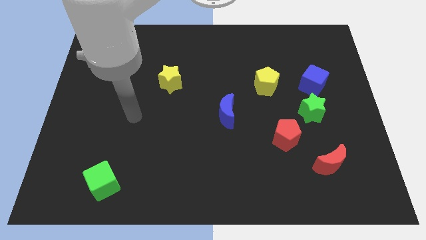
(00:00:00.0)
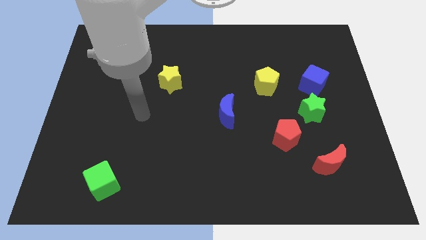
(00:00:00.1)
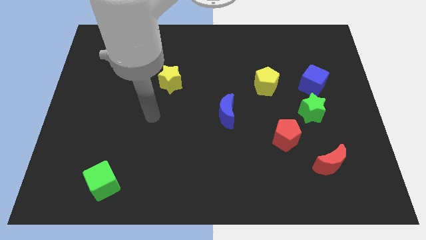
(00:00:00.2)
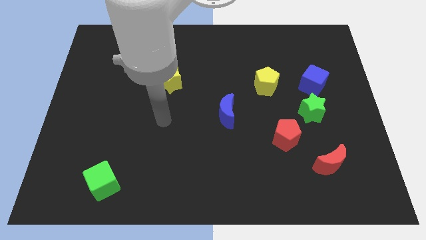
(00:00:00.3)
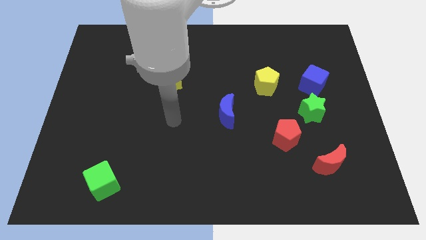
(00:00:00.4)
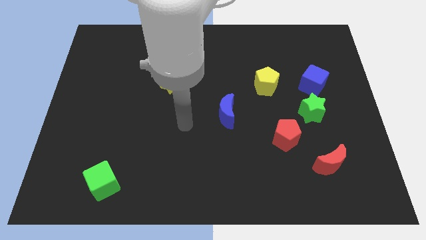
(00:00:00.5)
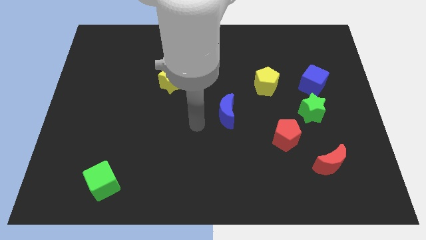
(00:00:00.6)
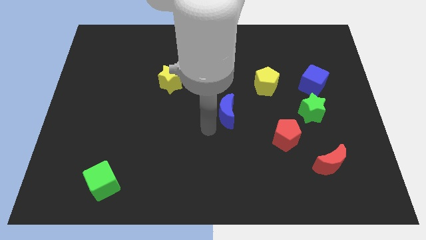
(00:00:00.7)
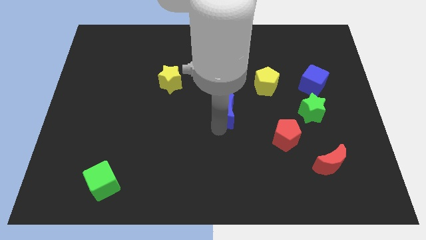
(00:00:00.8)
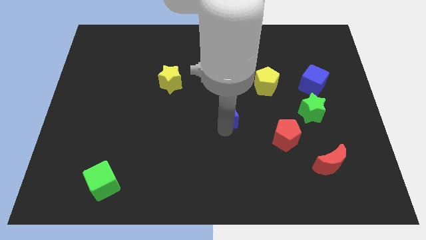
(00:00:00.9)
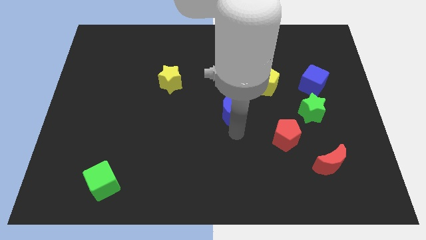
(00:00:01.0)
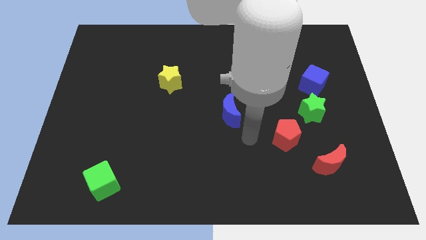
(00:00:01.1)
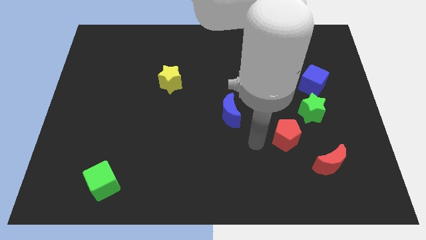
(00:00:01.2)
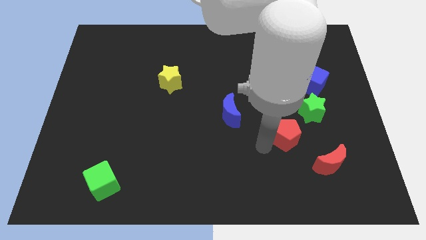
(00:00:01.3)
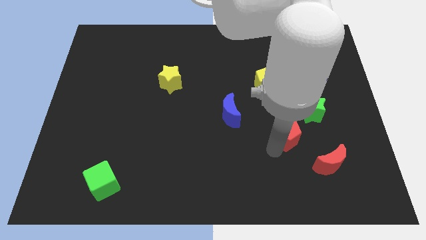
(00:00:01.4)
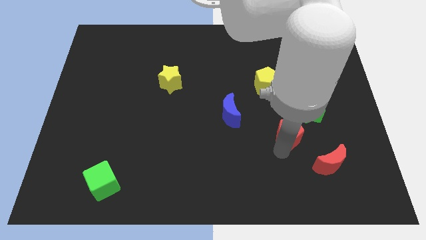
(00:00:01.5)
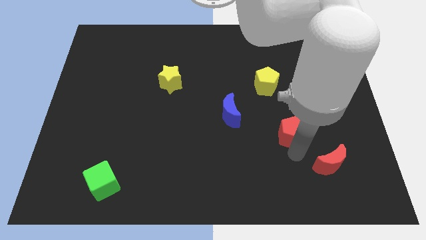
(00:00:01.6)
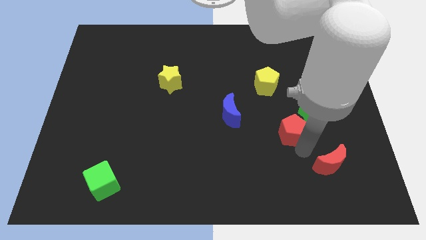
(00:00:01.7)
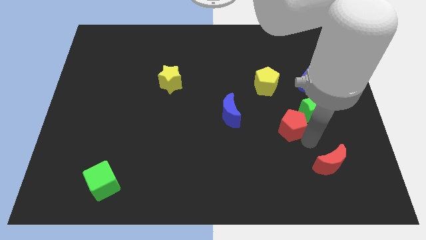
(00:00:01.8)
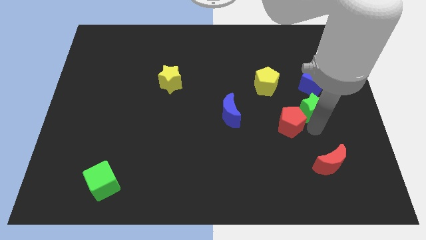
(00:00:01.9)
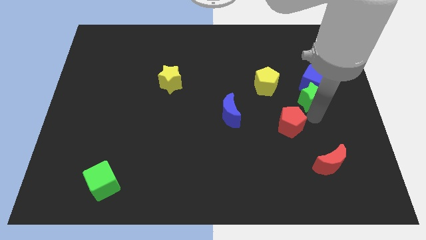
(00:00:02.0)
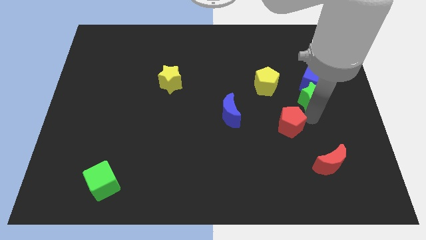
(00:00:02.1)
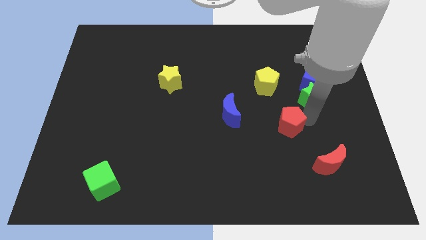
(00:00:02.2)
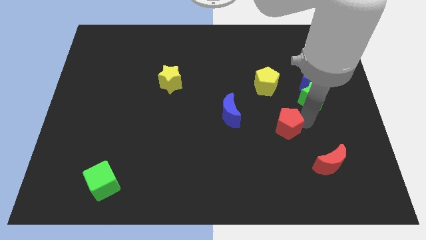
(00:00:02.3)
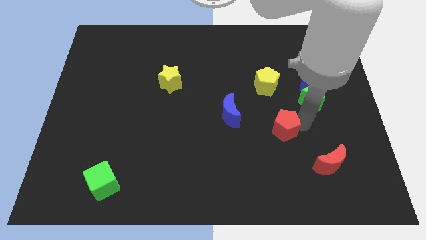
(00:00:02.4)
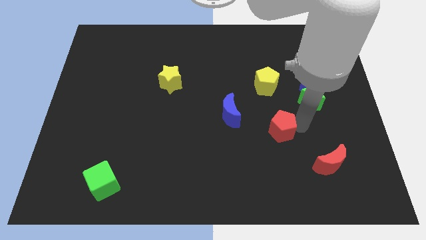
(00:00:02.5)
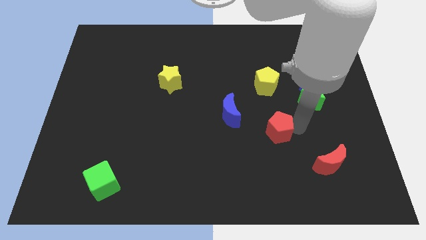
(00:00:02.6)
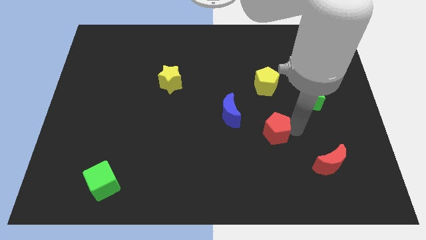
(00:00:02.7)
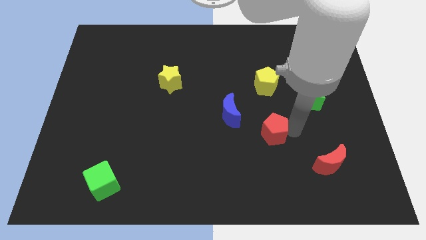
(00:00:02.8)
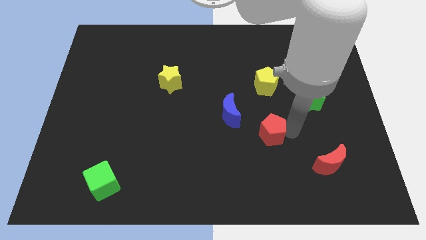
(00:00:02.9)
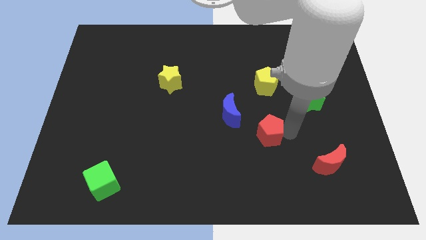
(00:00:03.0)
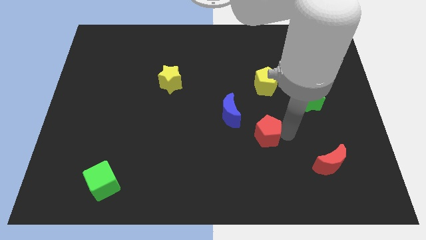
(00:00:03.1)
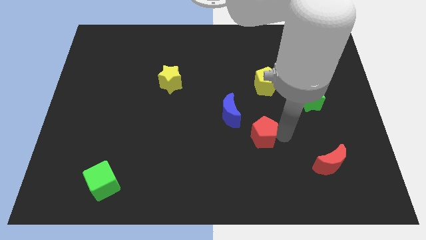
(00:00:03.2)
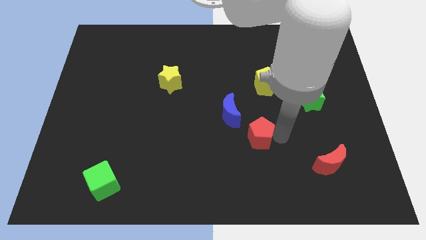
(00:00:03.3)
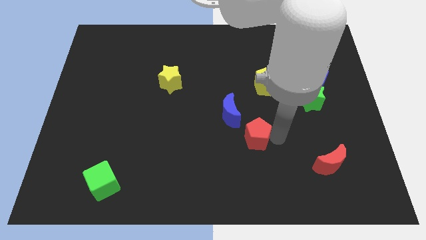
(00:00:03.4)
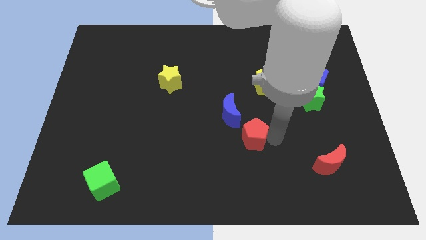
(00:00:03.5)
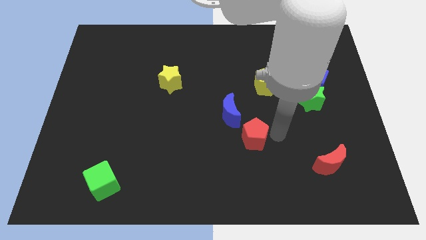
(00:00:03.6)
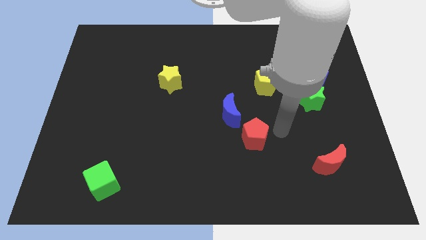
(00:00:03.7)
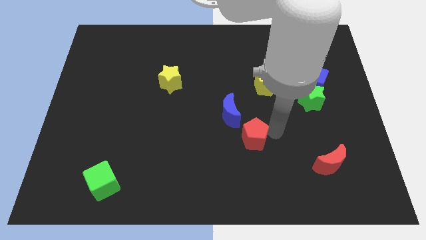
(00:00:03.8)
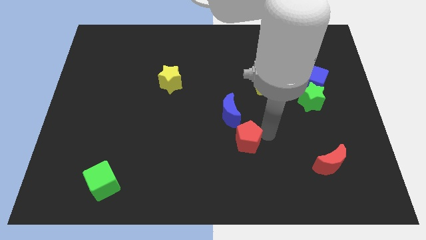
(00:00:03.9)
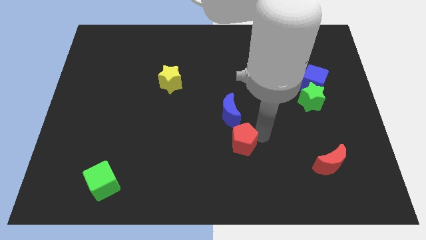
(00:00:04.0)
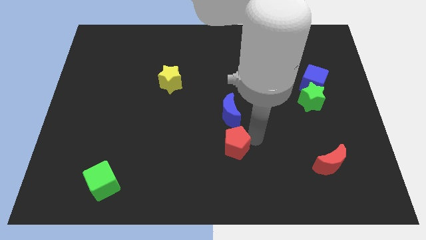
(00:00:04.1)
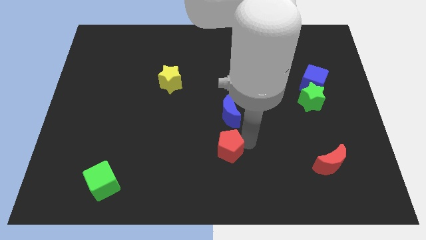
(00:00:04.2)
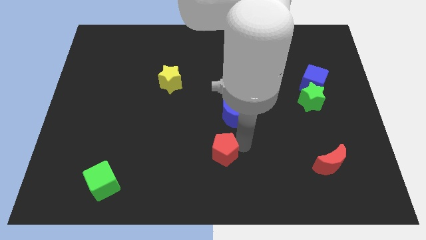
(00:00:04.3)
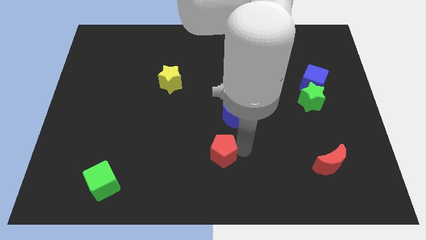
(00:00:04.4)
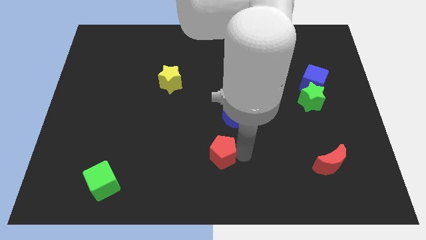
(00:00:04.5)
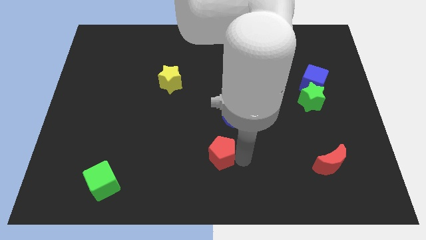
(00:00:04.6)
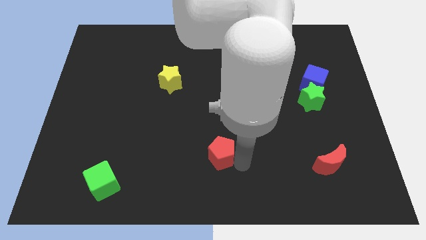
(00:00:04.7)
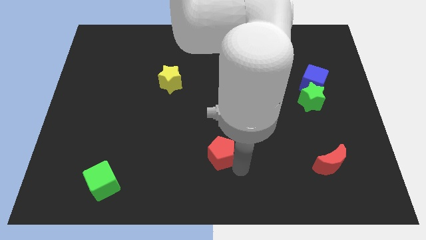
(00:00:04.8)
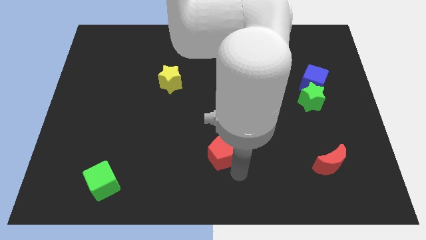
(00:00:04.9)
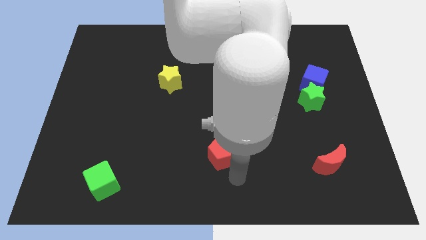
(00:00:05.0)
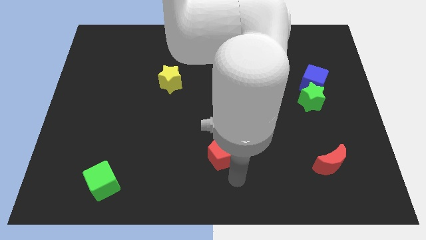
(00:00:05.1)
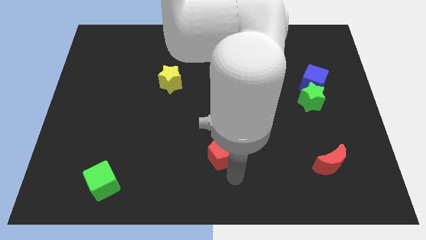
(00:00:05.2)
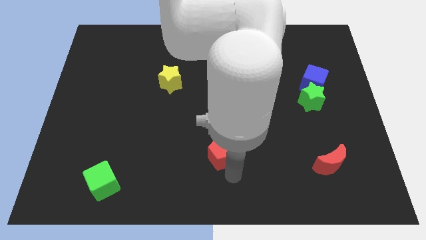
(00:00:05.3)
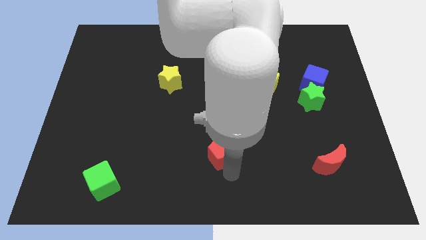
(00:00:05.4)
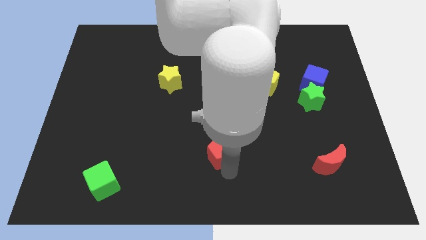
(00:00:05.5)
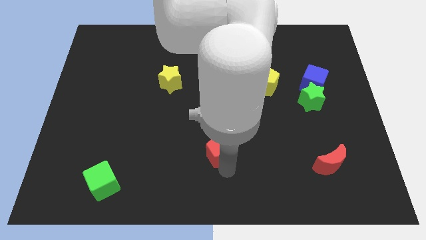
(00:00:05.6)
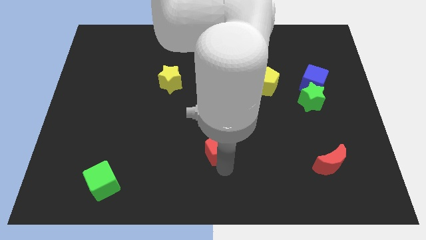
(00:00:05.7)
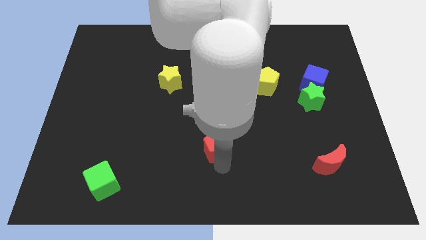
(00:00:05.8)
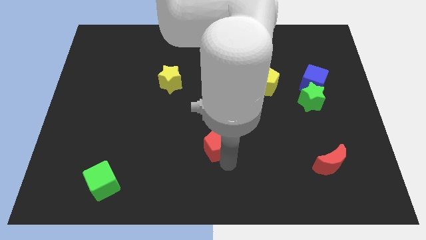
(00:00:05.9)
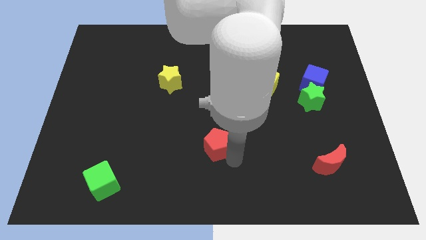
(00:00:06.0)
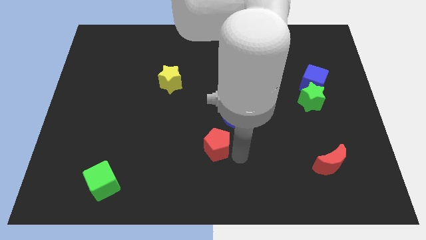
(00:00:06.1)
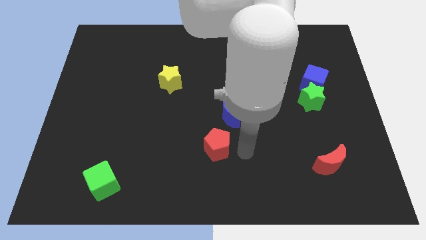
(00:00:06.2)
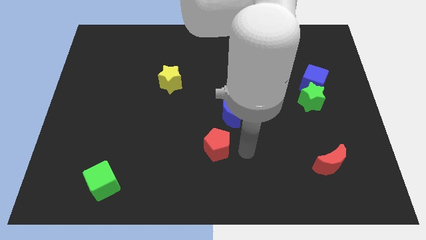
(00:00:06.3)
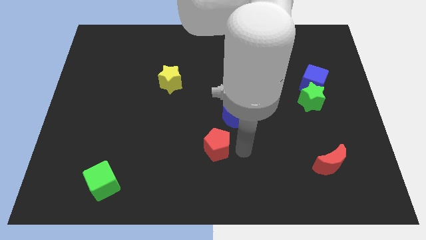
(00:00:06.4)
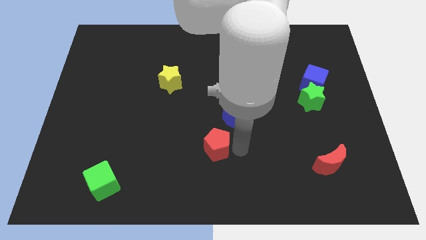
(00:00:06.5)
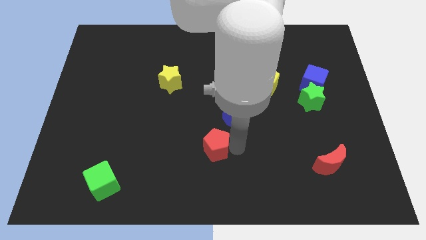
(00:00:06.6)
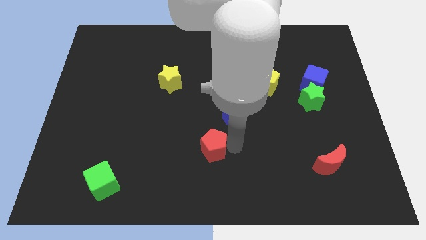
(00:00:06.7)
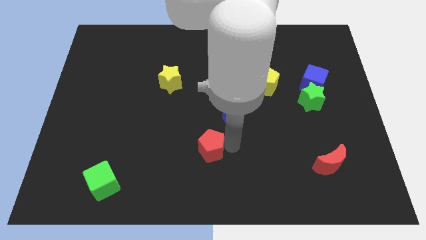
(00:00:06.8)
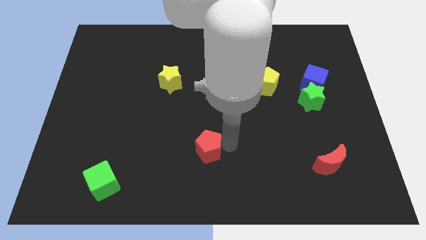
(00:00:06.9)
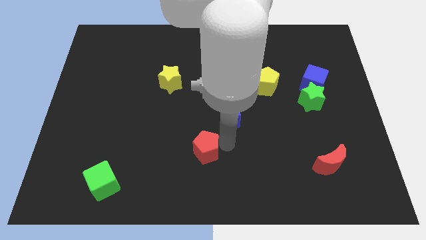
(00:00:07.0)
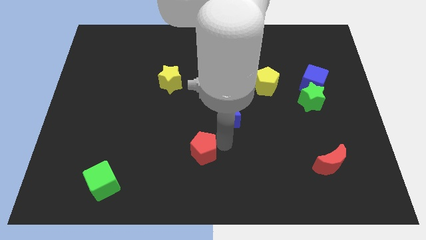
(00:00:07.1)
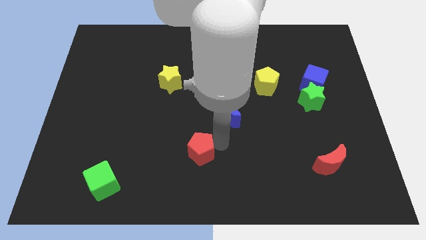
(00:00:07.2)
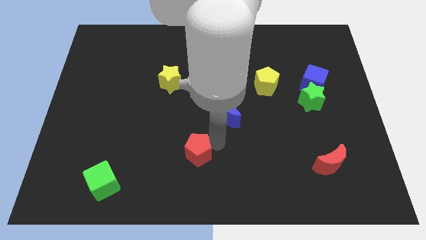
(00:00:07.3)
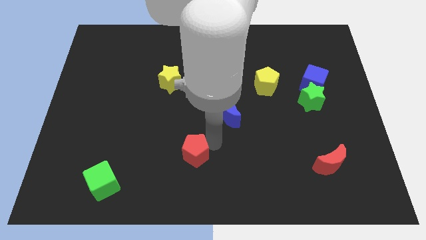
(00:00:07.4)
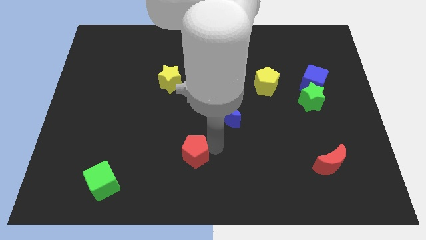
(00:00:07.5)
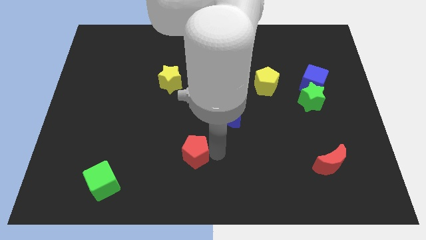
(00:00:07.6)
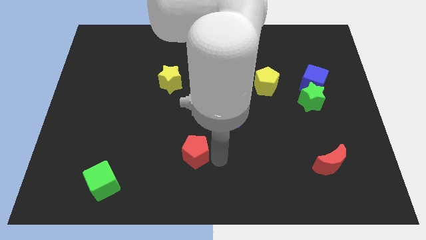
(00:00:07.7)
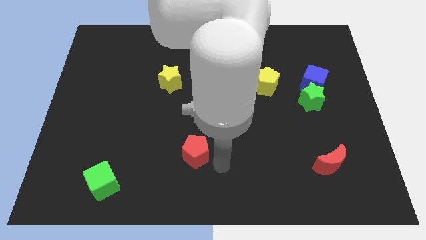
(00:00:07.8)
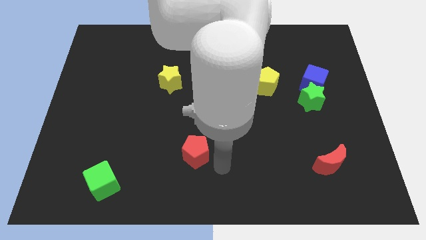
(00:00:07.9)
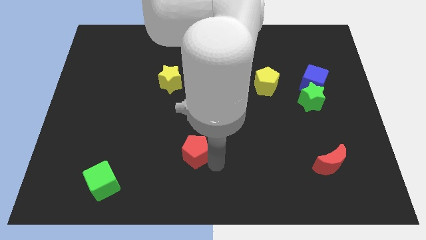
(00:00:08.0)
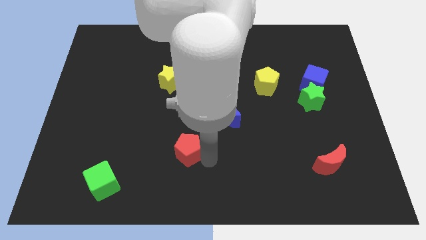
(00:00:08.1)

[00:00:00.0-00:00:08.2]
slide the red pentagon to the left
